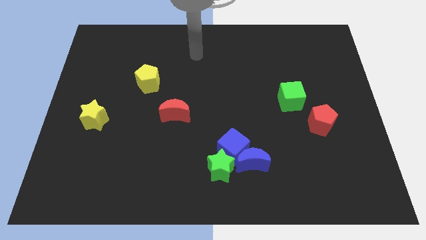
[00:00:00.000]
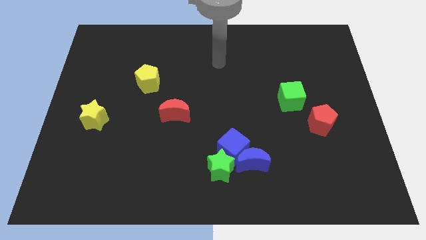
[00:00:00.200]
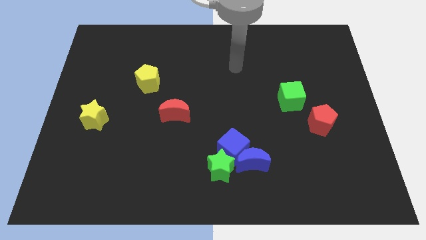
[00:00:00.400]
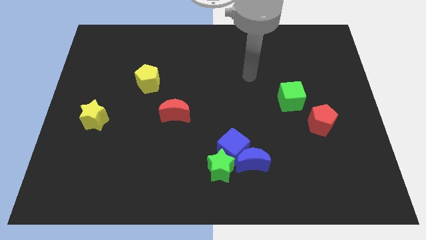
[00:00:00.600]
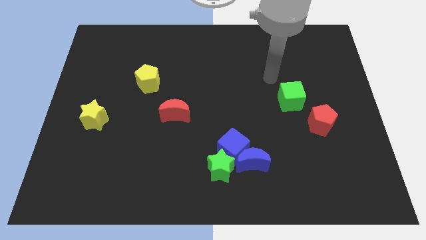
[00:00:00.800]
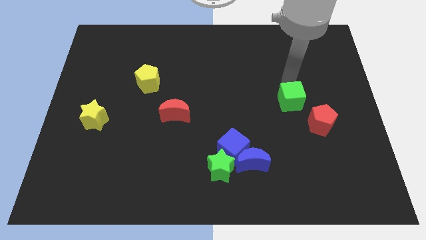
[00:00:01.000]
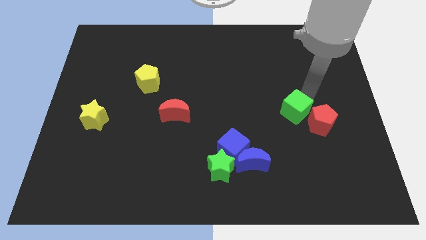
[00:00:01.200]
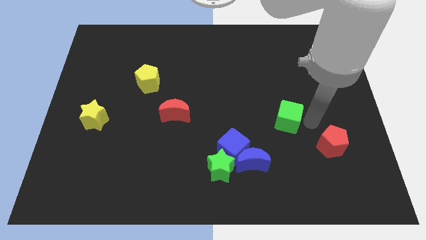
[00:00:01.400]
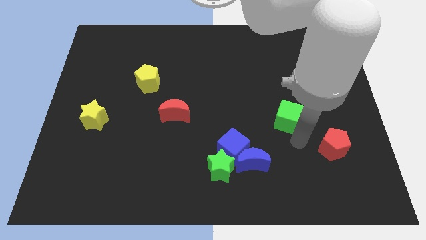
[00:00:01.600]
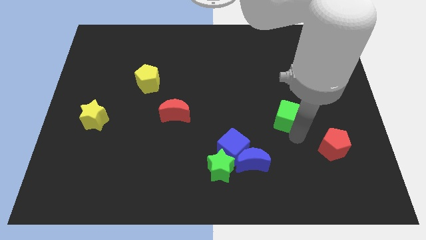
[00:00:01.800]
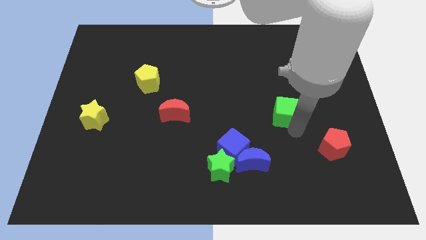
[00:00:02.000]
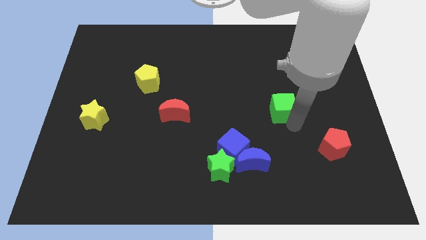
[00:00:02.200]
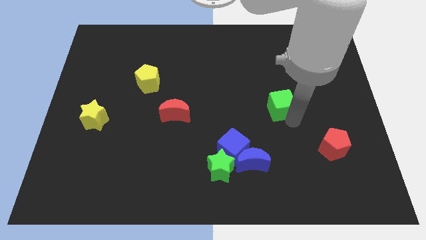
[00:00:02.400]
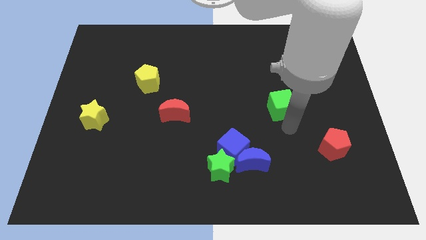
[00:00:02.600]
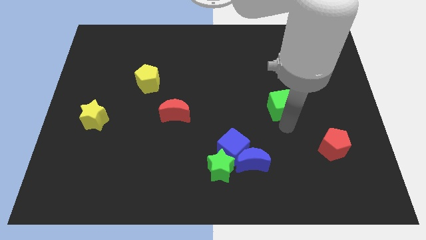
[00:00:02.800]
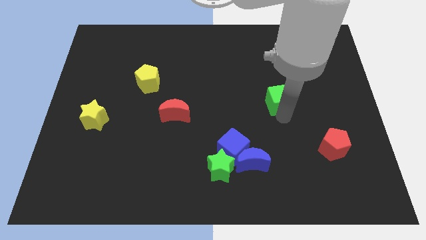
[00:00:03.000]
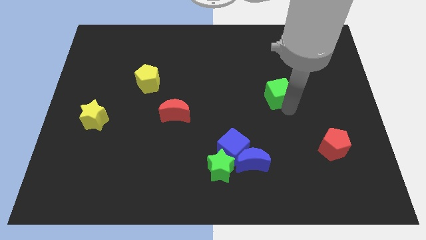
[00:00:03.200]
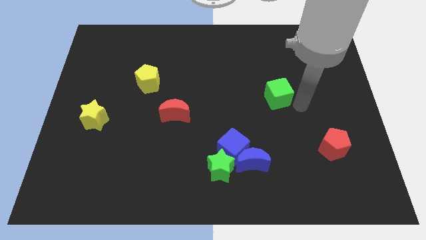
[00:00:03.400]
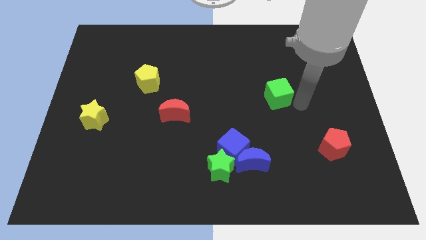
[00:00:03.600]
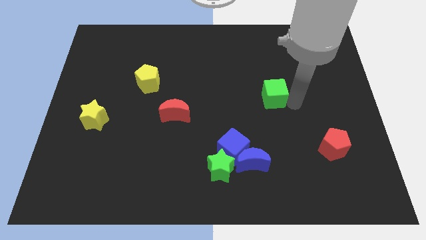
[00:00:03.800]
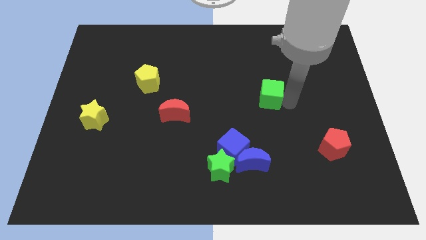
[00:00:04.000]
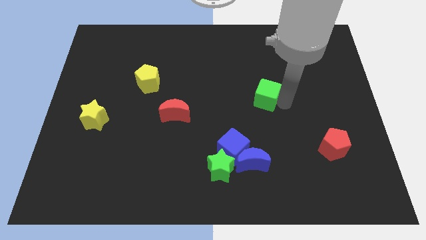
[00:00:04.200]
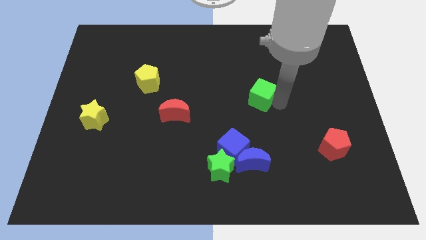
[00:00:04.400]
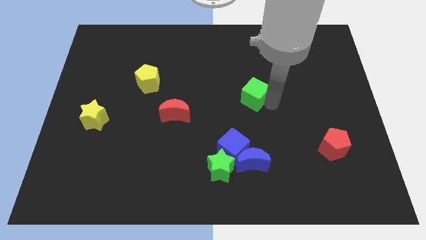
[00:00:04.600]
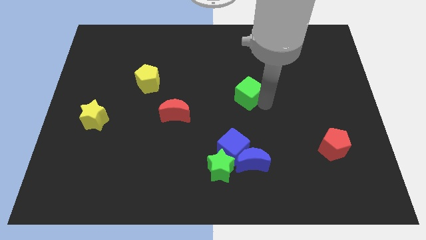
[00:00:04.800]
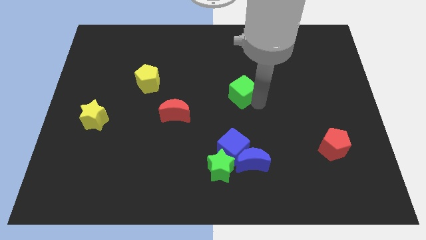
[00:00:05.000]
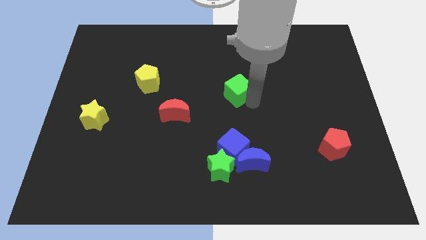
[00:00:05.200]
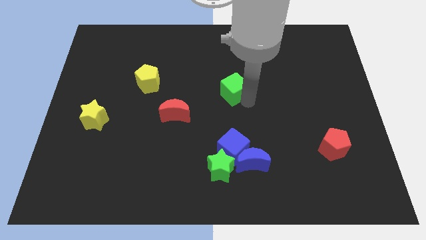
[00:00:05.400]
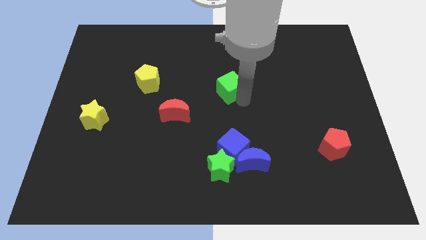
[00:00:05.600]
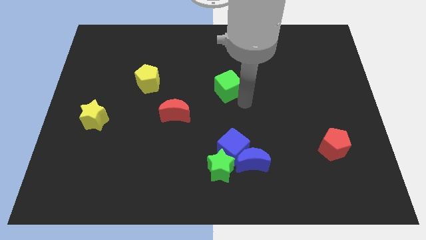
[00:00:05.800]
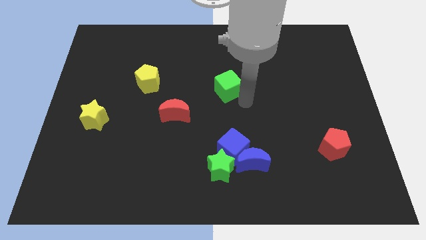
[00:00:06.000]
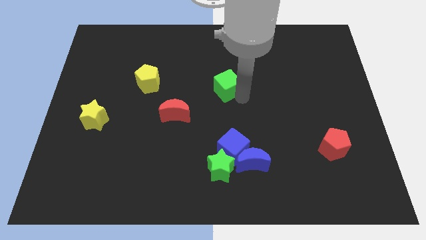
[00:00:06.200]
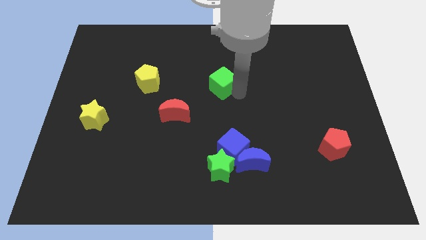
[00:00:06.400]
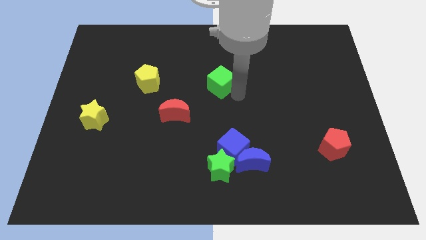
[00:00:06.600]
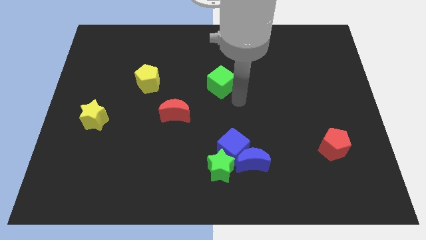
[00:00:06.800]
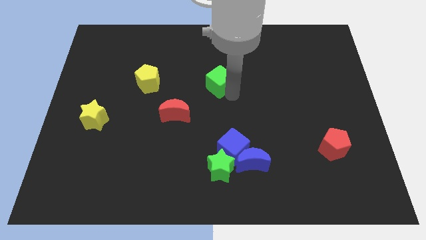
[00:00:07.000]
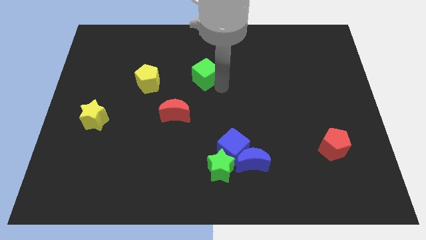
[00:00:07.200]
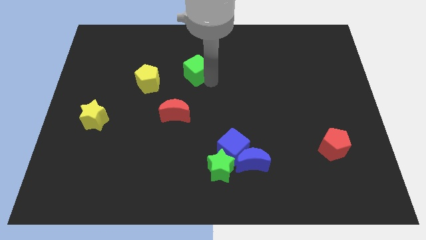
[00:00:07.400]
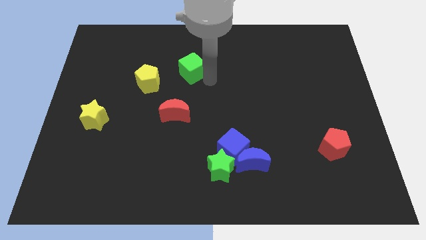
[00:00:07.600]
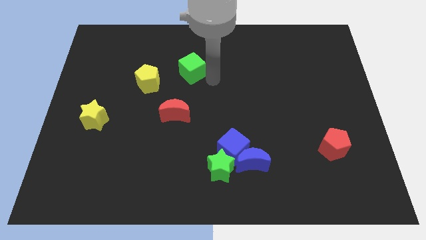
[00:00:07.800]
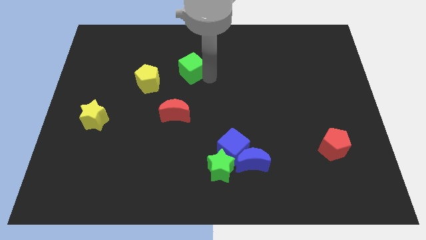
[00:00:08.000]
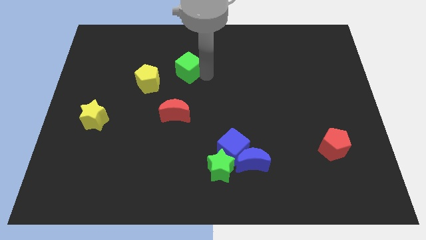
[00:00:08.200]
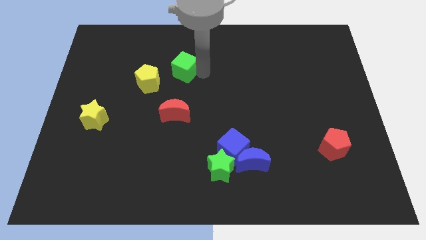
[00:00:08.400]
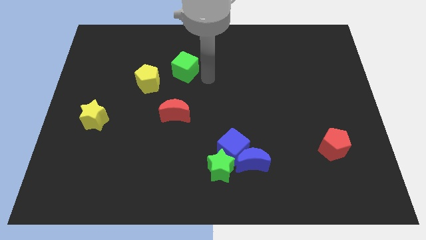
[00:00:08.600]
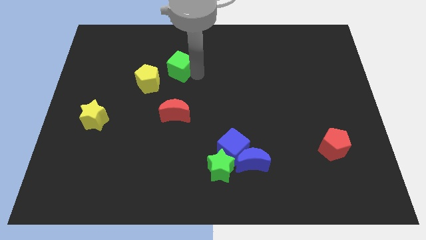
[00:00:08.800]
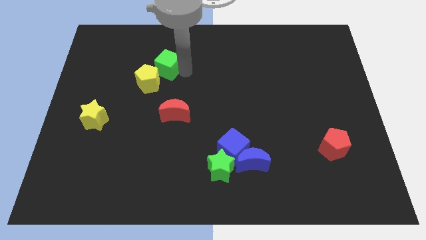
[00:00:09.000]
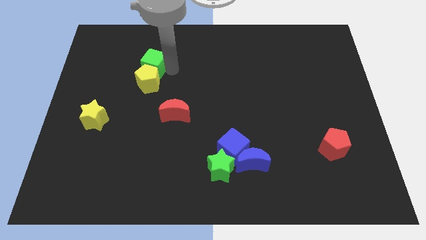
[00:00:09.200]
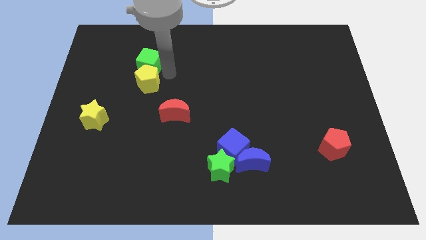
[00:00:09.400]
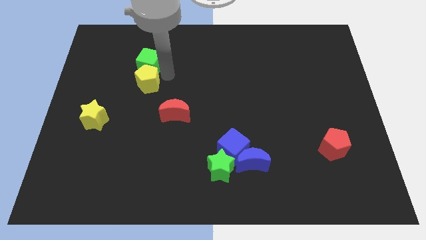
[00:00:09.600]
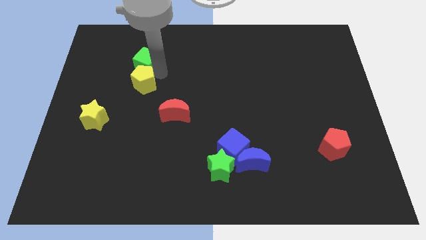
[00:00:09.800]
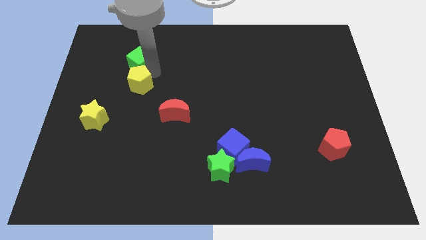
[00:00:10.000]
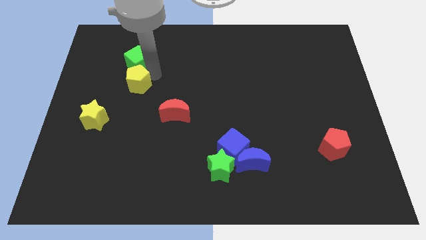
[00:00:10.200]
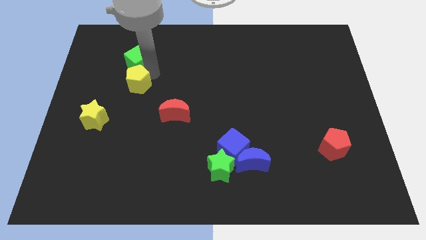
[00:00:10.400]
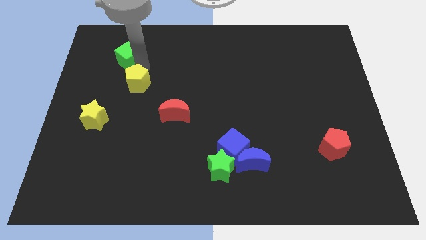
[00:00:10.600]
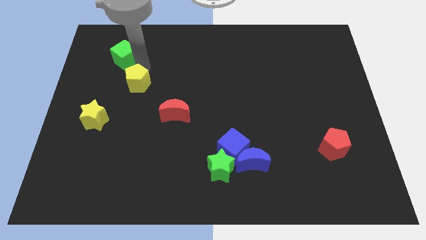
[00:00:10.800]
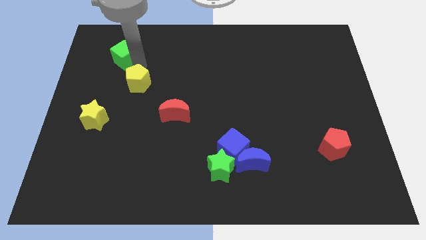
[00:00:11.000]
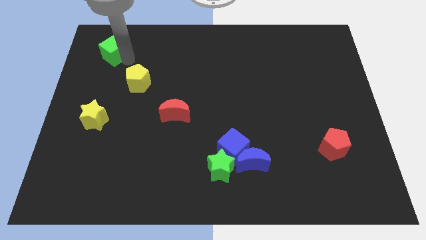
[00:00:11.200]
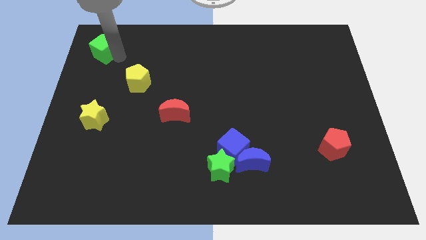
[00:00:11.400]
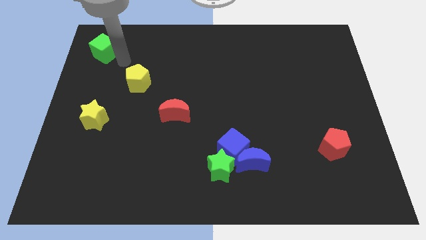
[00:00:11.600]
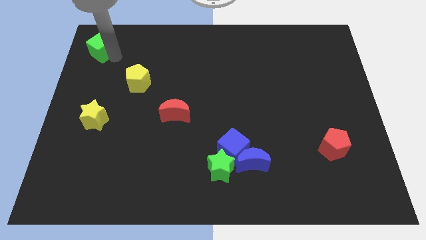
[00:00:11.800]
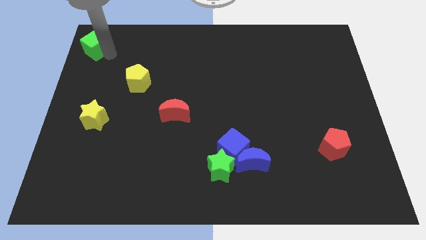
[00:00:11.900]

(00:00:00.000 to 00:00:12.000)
slide the green cube to the top left corner
